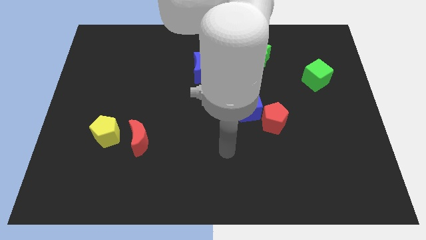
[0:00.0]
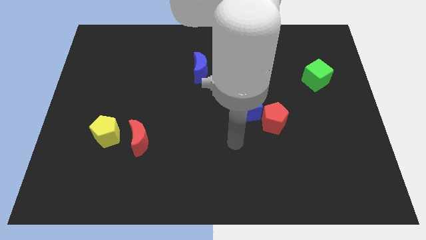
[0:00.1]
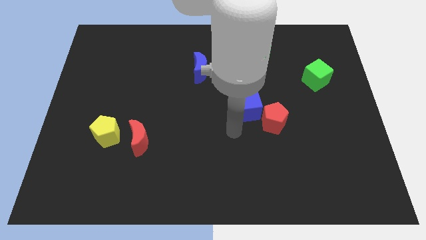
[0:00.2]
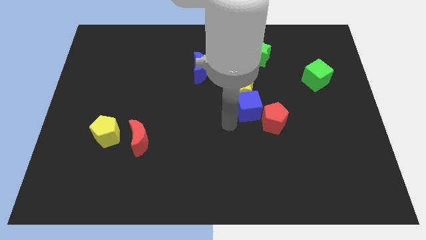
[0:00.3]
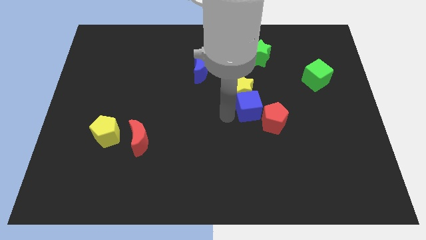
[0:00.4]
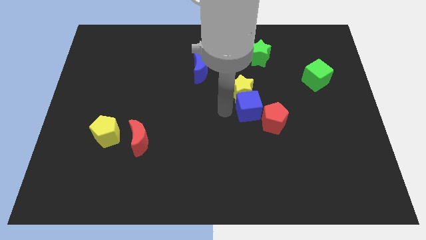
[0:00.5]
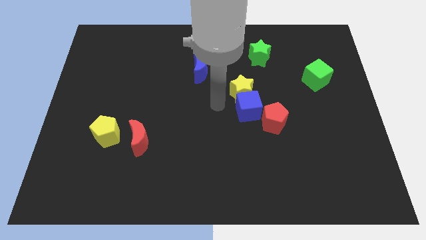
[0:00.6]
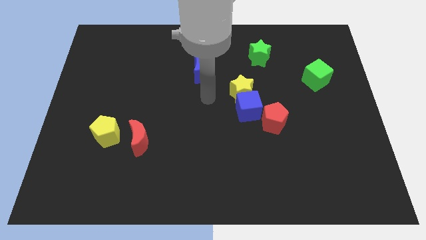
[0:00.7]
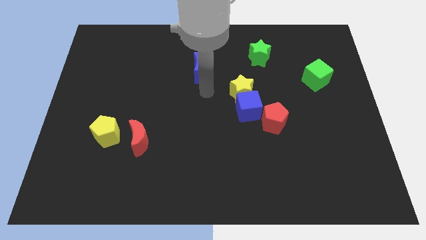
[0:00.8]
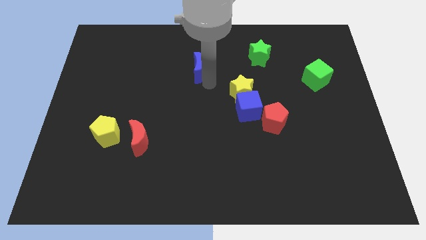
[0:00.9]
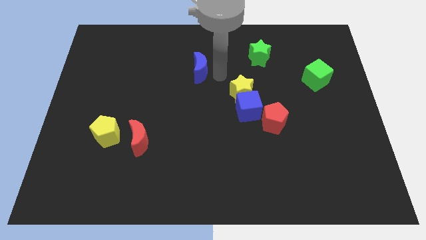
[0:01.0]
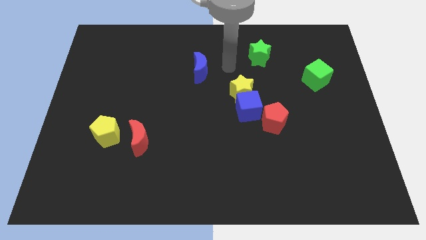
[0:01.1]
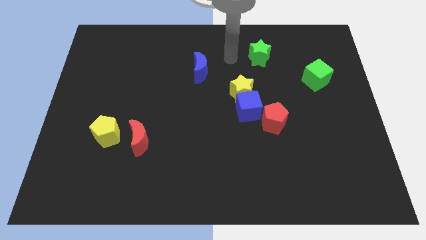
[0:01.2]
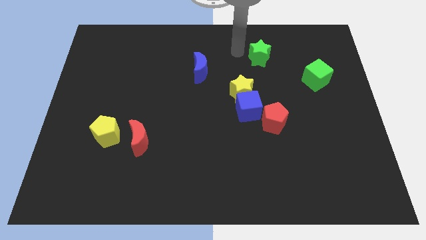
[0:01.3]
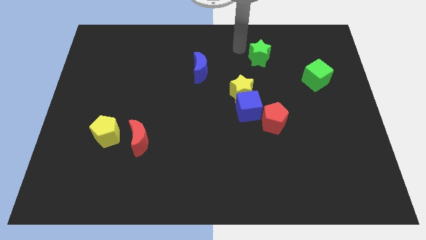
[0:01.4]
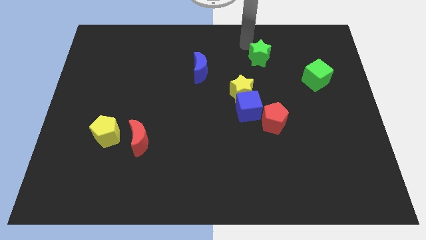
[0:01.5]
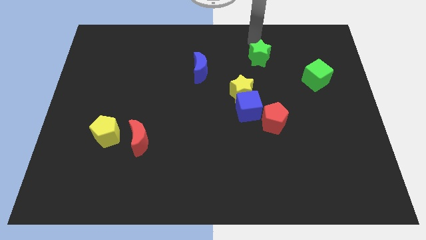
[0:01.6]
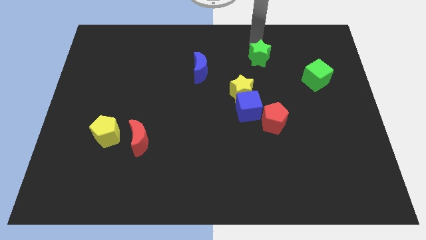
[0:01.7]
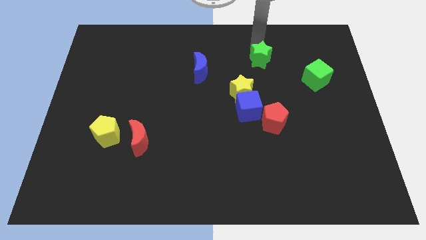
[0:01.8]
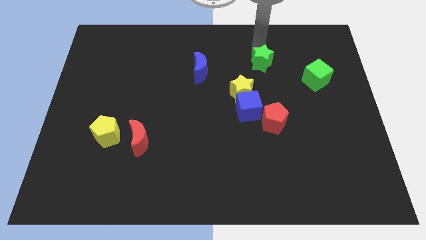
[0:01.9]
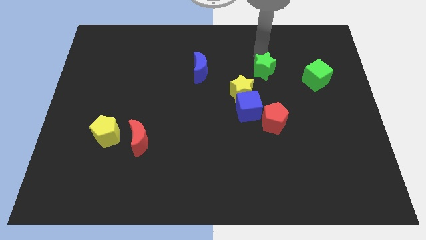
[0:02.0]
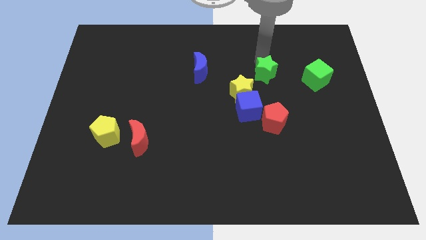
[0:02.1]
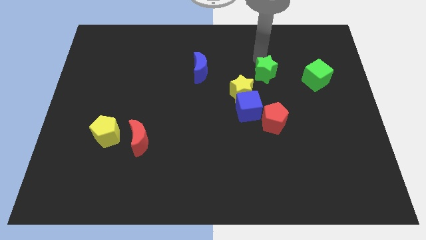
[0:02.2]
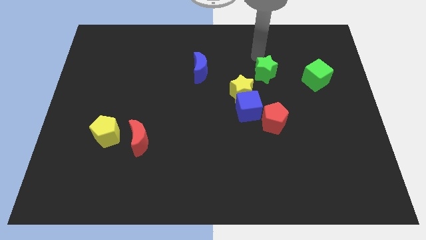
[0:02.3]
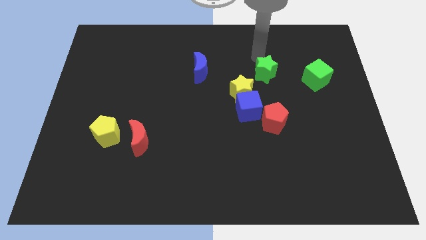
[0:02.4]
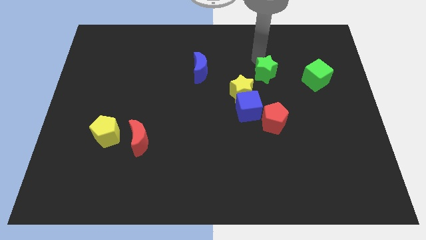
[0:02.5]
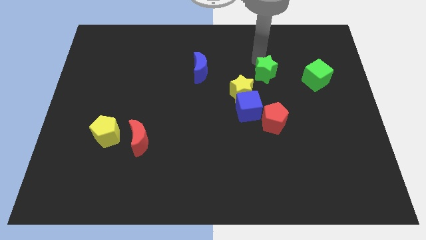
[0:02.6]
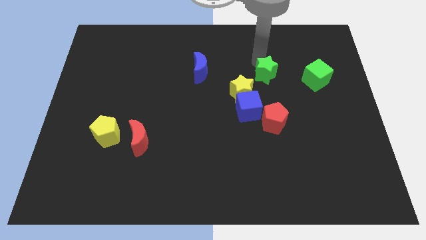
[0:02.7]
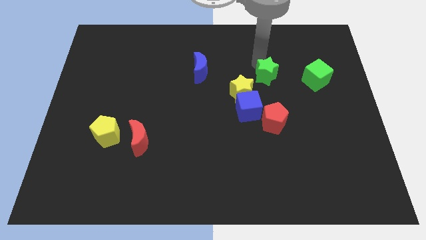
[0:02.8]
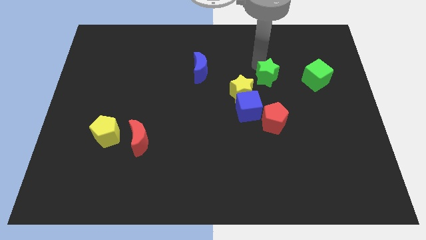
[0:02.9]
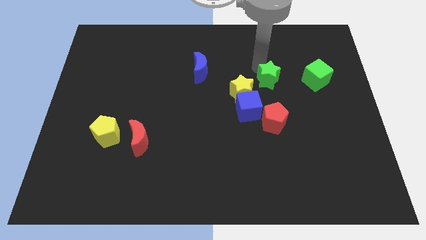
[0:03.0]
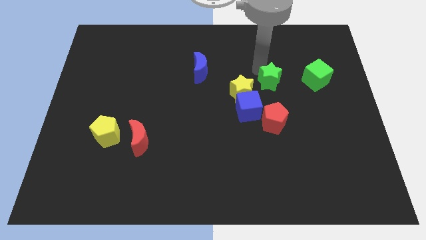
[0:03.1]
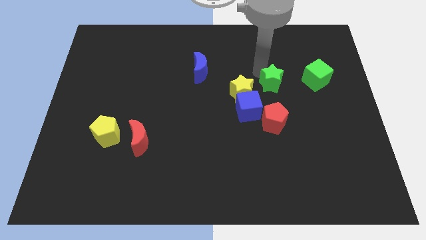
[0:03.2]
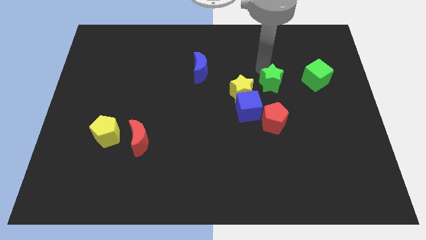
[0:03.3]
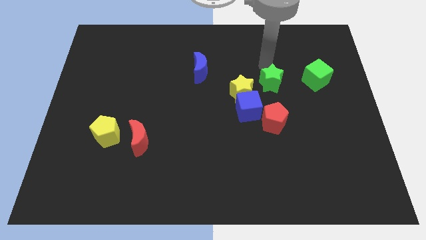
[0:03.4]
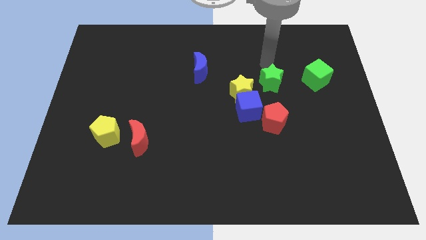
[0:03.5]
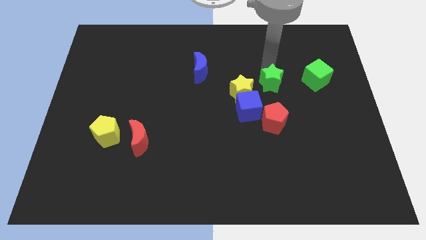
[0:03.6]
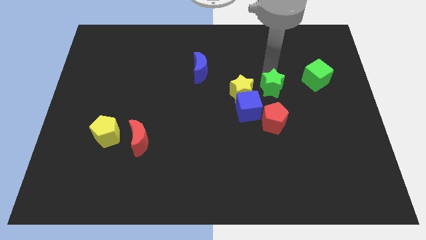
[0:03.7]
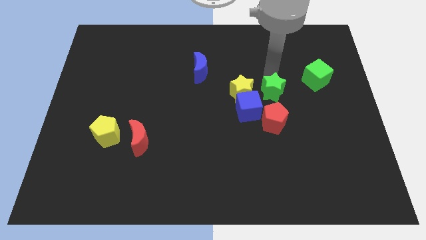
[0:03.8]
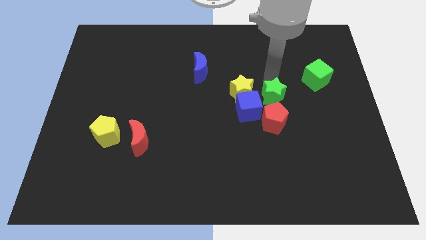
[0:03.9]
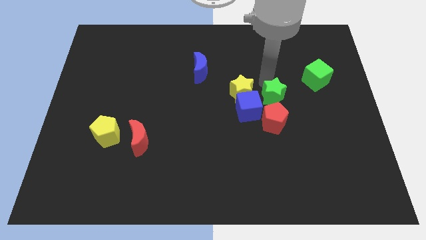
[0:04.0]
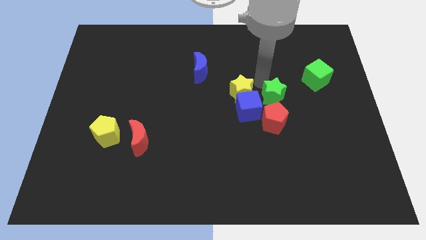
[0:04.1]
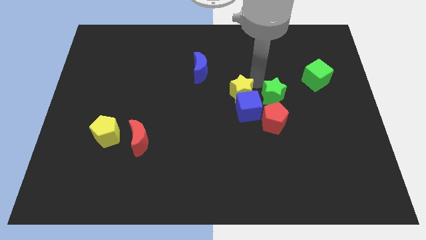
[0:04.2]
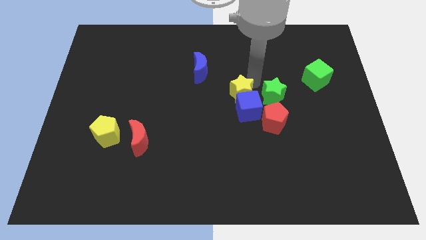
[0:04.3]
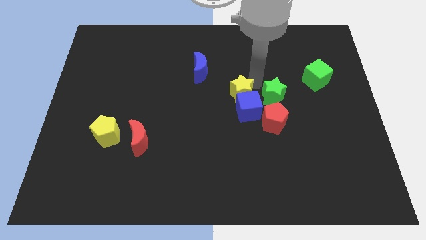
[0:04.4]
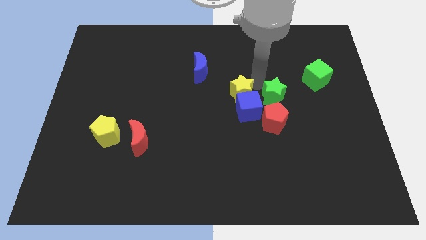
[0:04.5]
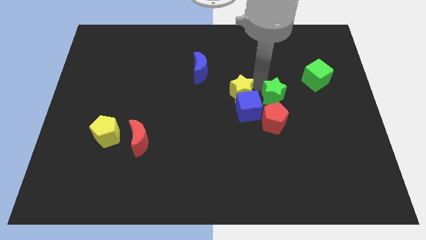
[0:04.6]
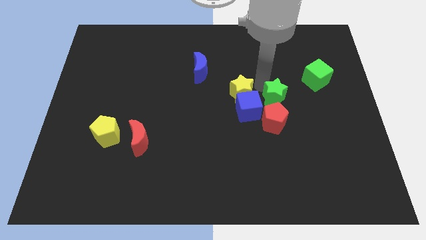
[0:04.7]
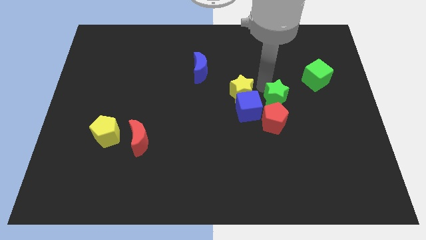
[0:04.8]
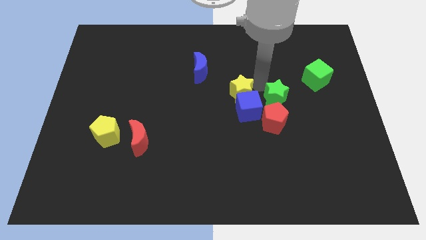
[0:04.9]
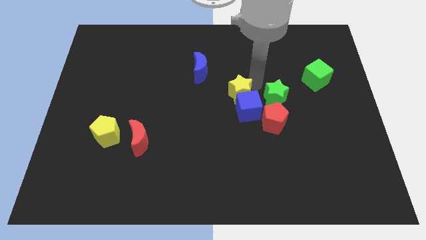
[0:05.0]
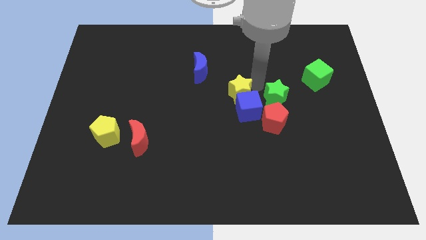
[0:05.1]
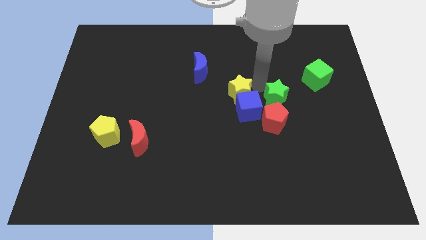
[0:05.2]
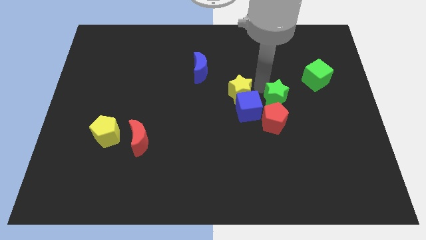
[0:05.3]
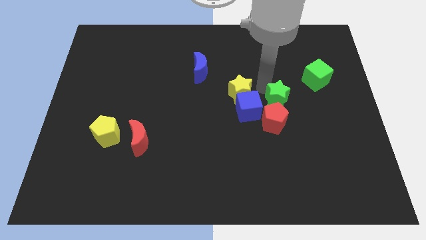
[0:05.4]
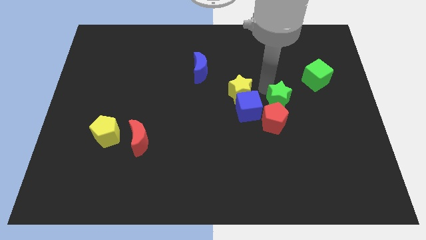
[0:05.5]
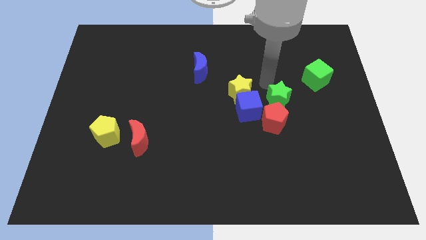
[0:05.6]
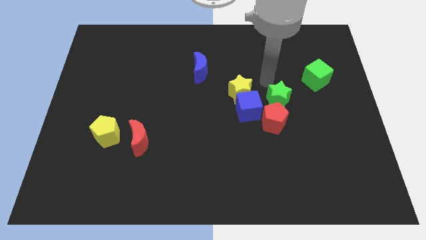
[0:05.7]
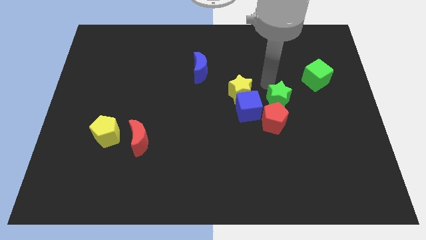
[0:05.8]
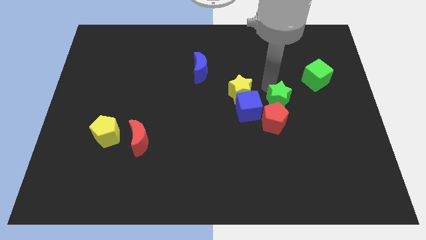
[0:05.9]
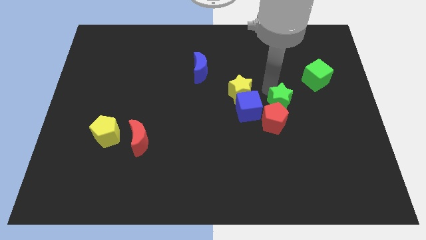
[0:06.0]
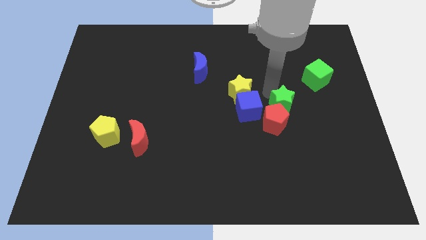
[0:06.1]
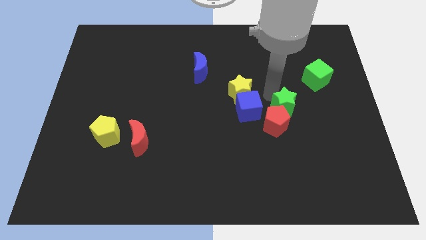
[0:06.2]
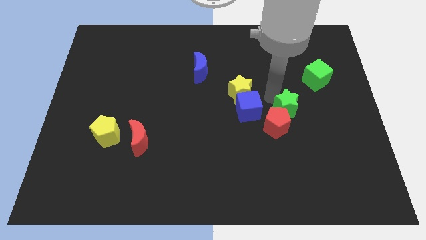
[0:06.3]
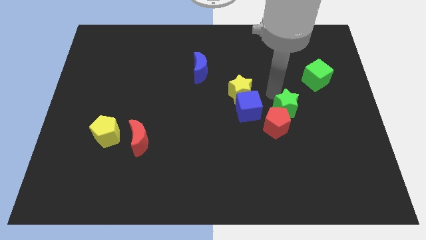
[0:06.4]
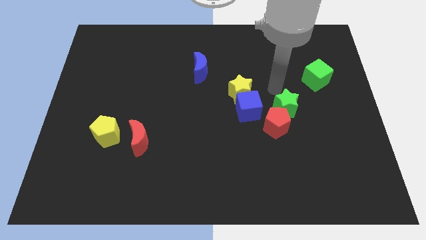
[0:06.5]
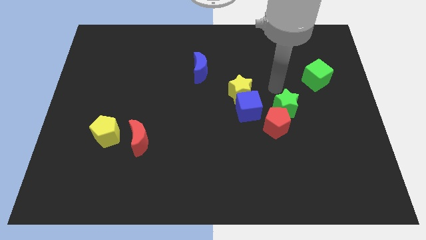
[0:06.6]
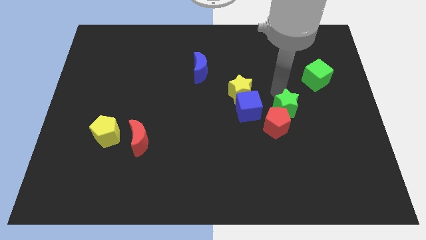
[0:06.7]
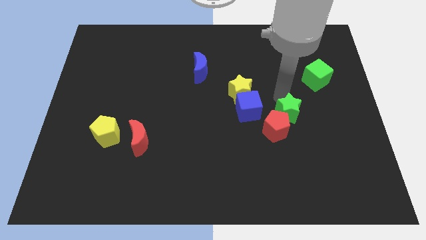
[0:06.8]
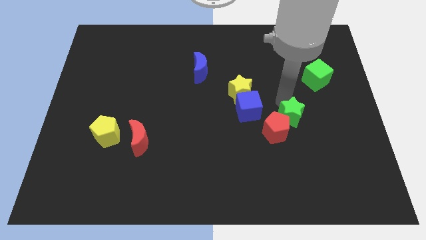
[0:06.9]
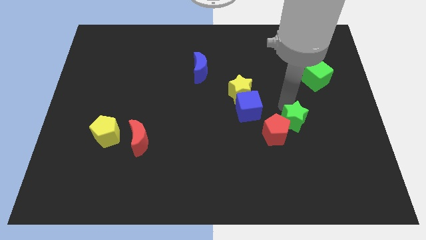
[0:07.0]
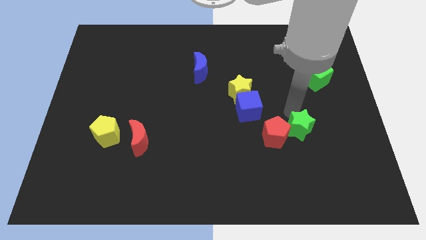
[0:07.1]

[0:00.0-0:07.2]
slide the green star downwards

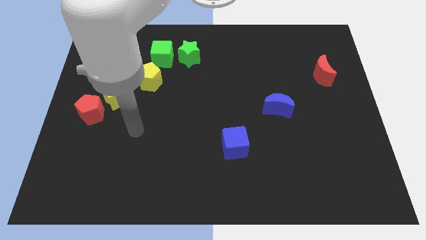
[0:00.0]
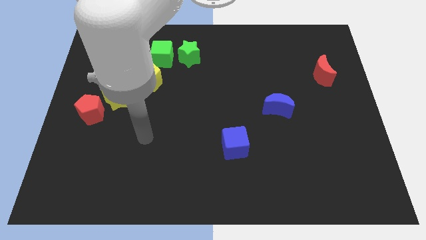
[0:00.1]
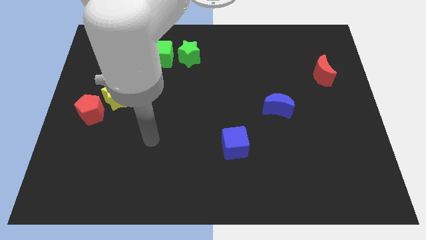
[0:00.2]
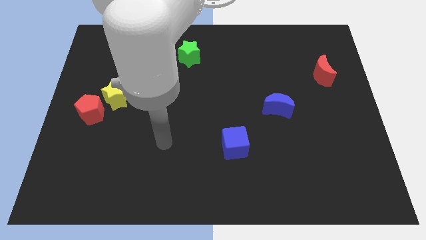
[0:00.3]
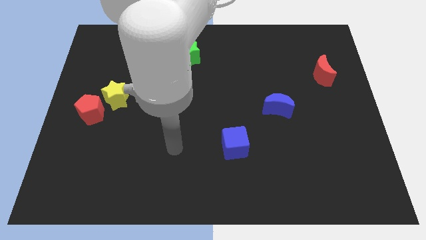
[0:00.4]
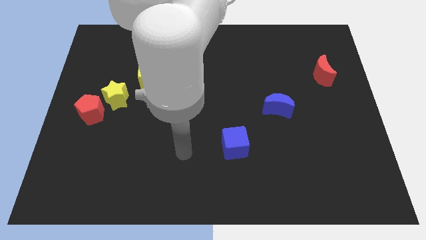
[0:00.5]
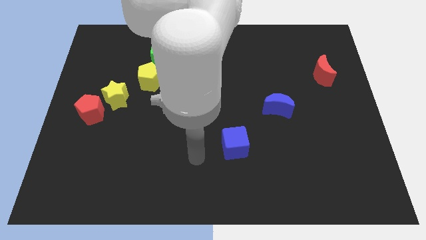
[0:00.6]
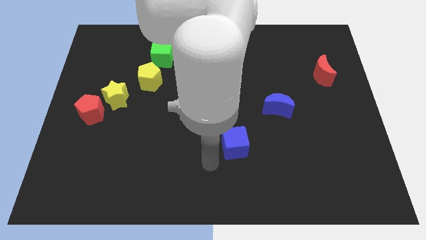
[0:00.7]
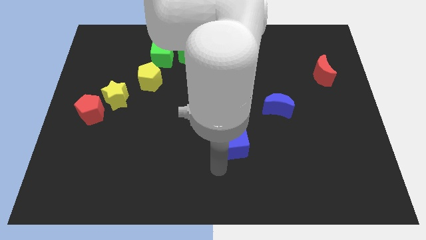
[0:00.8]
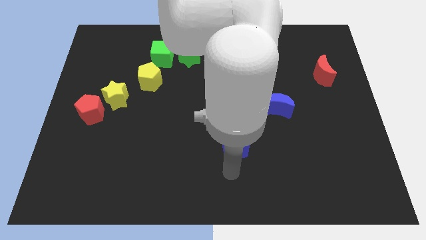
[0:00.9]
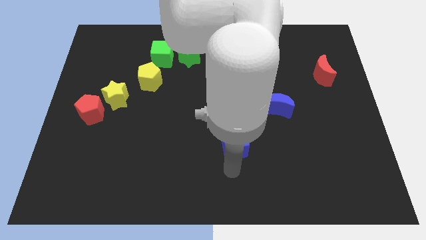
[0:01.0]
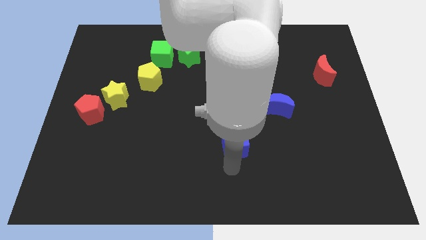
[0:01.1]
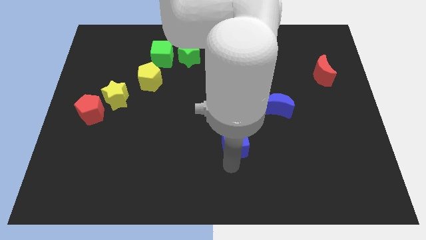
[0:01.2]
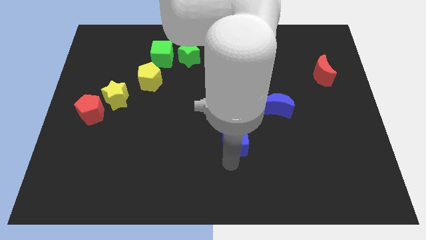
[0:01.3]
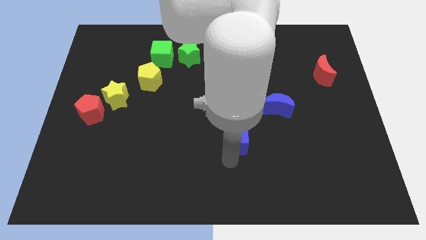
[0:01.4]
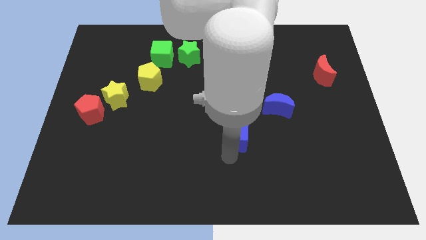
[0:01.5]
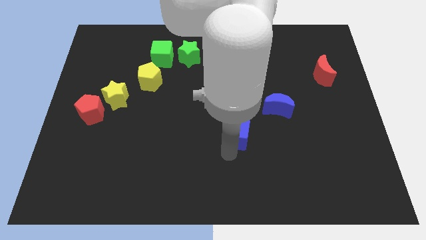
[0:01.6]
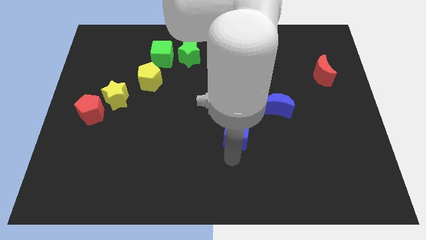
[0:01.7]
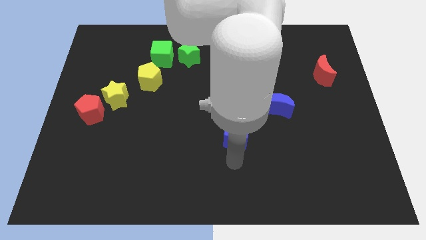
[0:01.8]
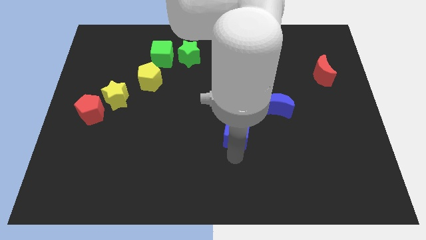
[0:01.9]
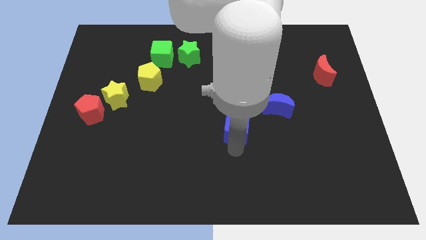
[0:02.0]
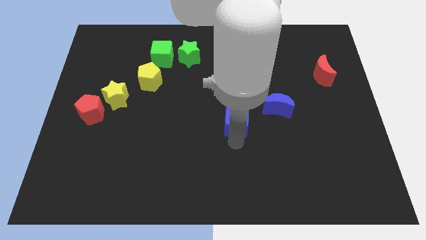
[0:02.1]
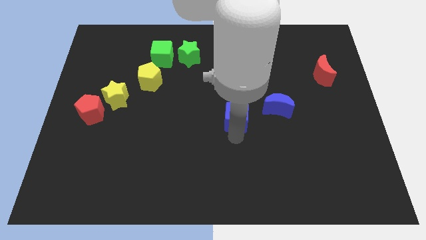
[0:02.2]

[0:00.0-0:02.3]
push the blue cube a bit up
